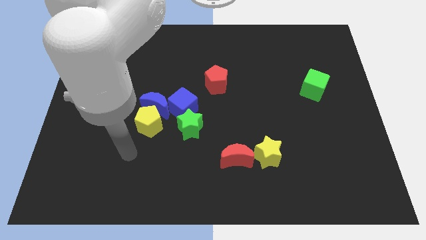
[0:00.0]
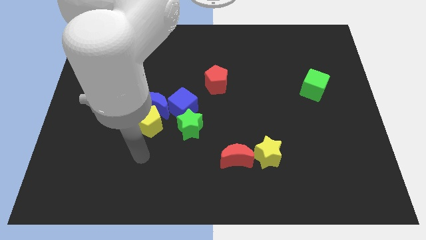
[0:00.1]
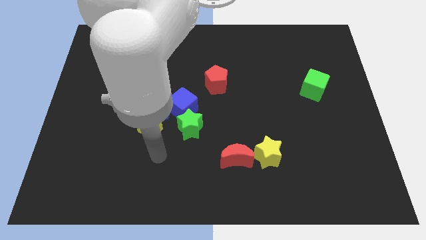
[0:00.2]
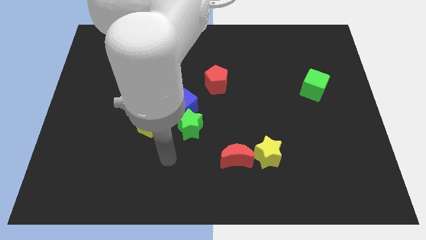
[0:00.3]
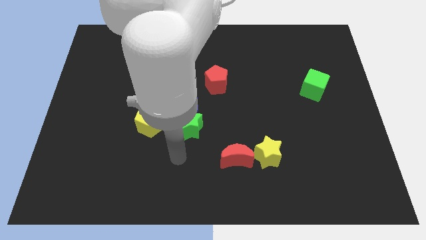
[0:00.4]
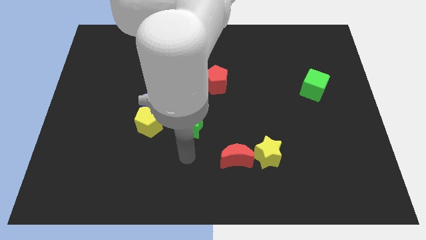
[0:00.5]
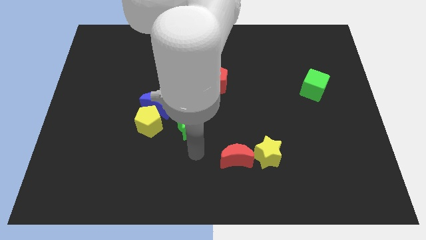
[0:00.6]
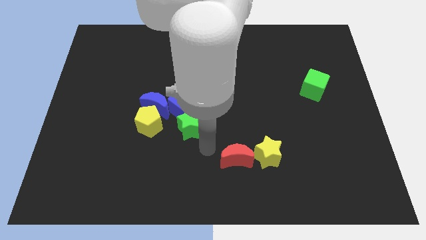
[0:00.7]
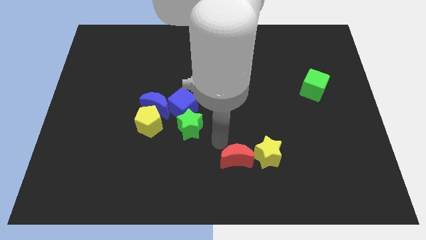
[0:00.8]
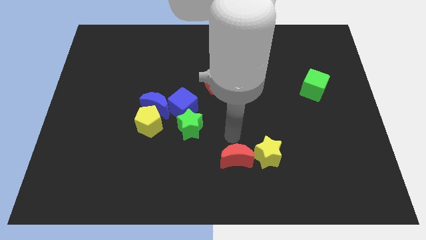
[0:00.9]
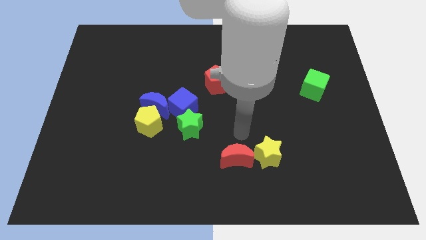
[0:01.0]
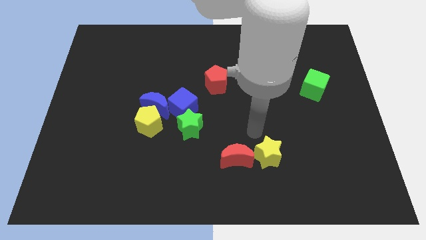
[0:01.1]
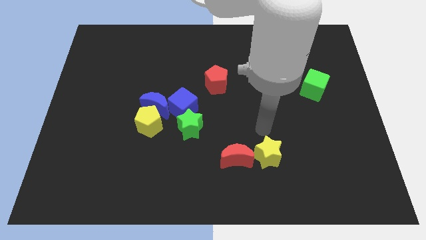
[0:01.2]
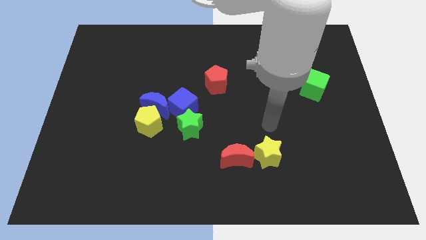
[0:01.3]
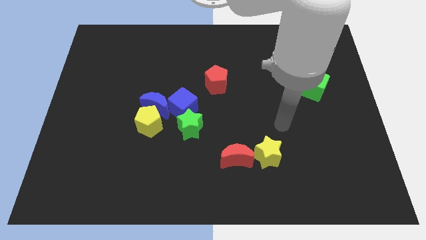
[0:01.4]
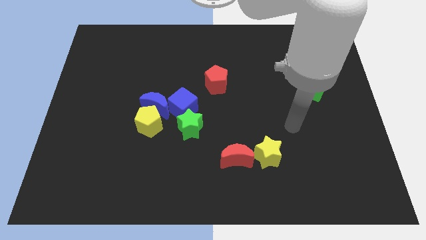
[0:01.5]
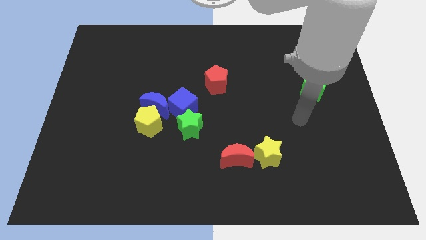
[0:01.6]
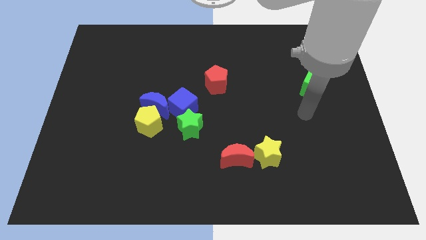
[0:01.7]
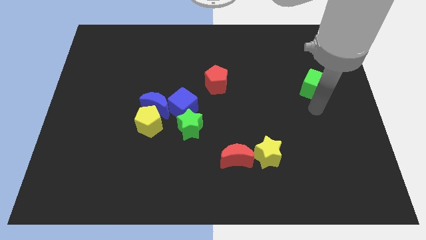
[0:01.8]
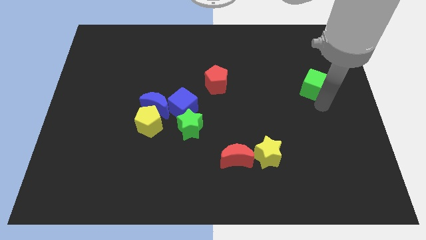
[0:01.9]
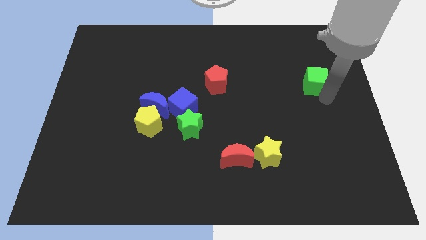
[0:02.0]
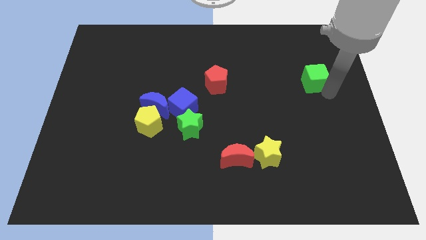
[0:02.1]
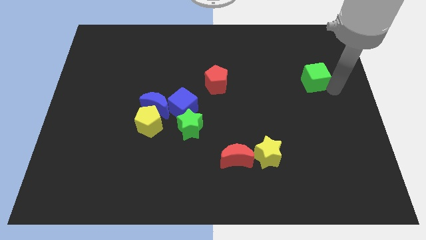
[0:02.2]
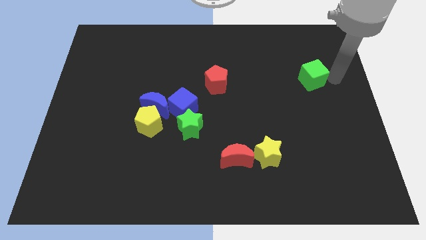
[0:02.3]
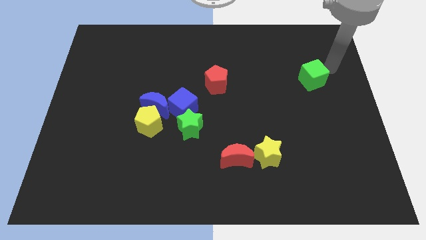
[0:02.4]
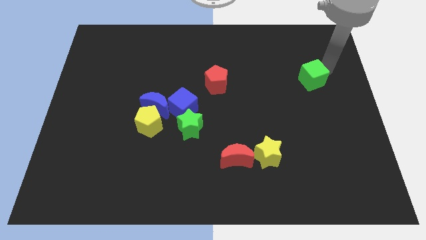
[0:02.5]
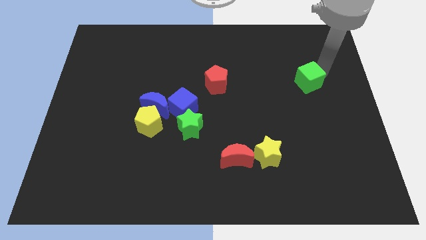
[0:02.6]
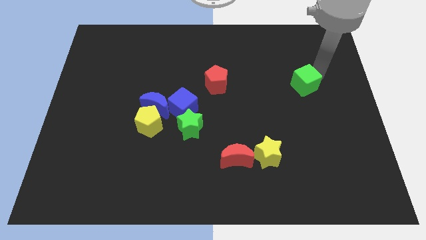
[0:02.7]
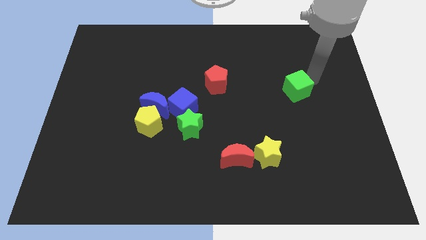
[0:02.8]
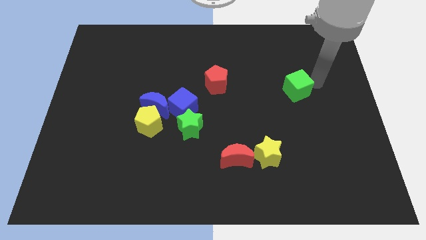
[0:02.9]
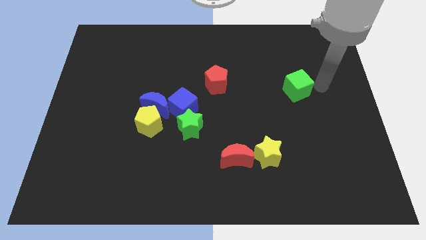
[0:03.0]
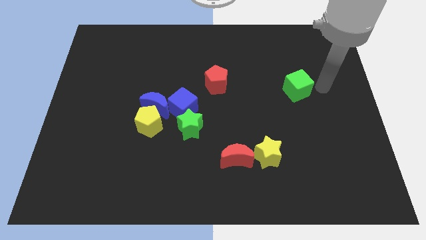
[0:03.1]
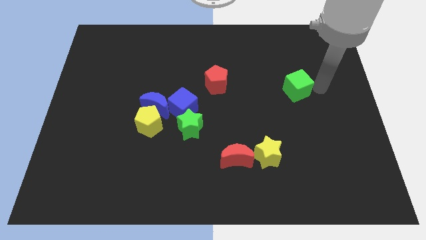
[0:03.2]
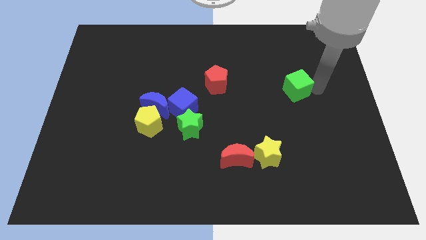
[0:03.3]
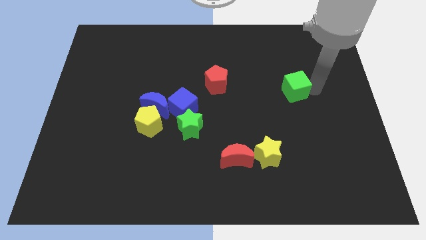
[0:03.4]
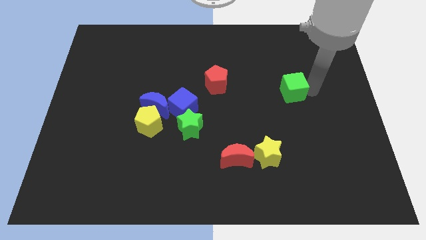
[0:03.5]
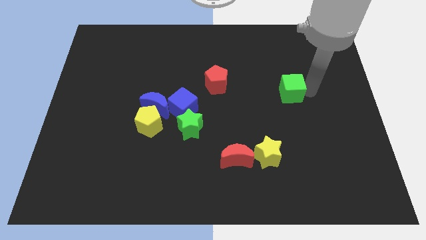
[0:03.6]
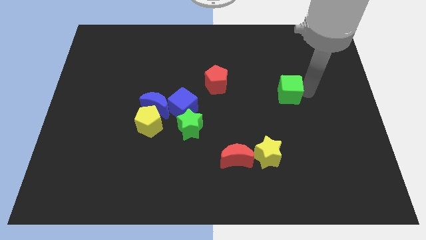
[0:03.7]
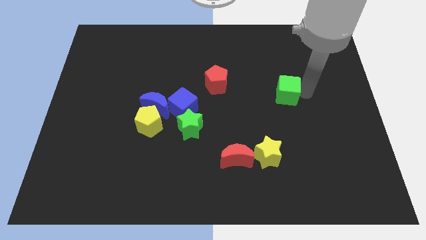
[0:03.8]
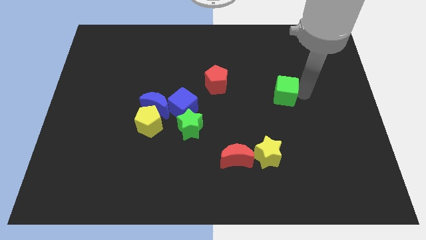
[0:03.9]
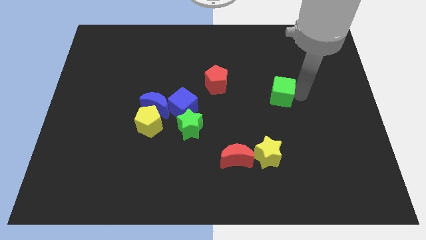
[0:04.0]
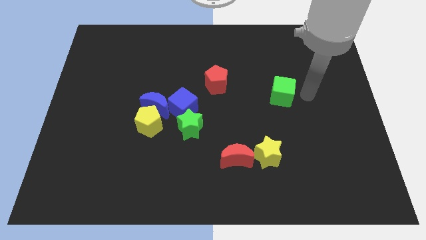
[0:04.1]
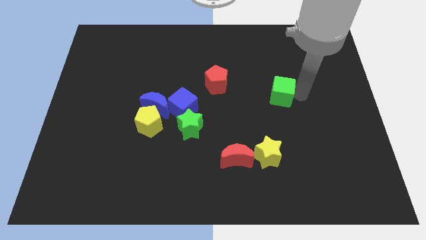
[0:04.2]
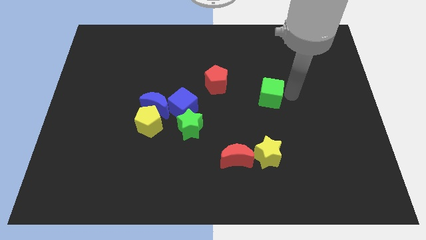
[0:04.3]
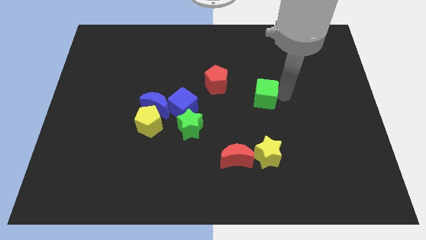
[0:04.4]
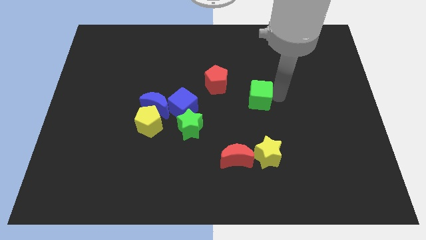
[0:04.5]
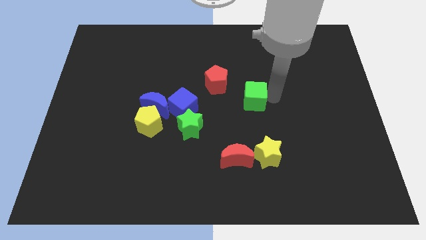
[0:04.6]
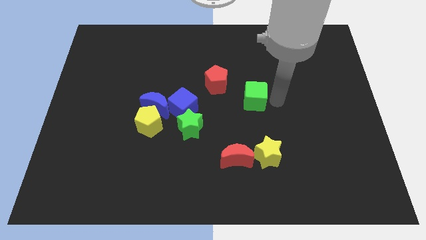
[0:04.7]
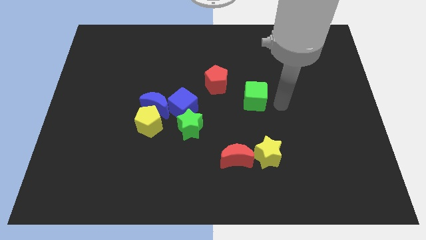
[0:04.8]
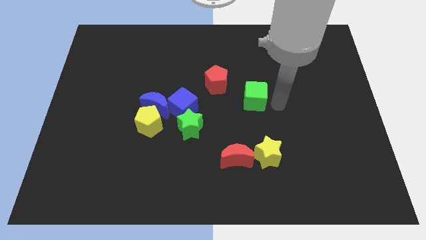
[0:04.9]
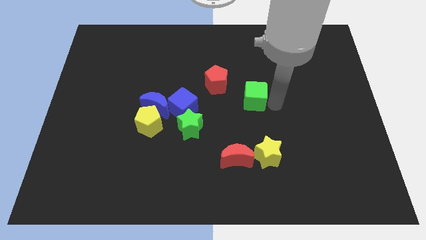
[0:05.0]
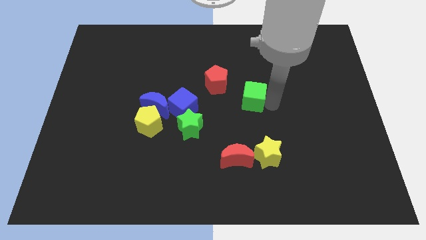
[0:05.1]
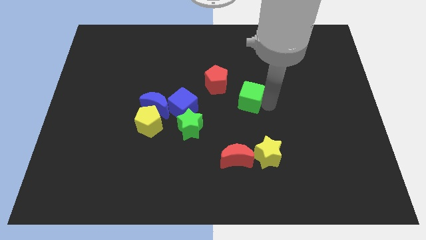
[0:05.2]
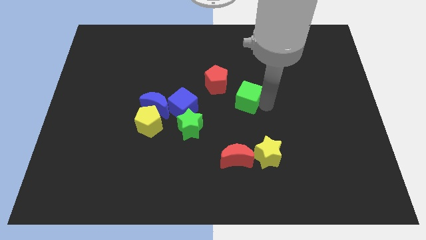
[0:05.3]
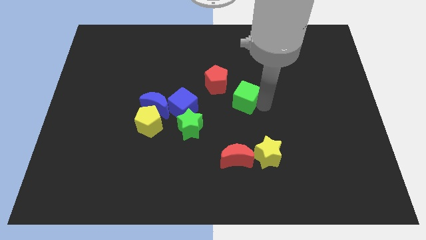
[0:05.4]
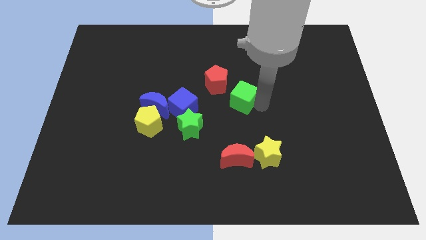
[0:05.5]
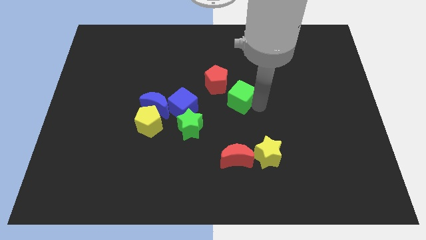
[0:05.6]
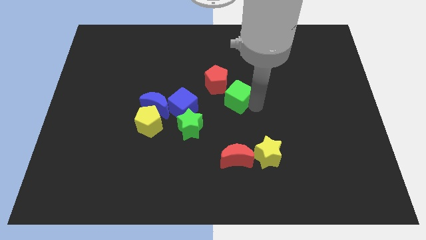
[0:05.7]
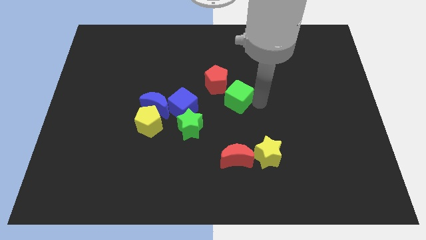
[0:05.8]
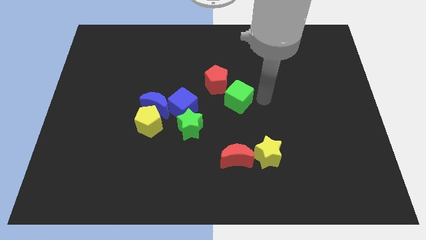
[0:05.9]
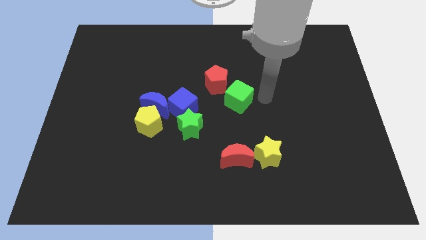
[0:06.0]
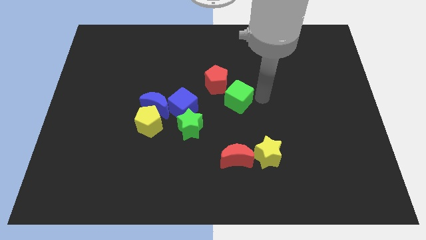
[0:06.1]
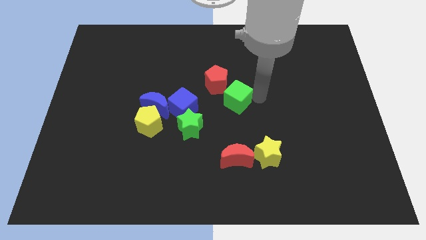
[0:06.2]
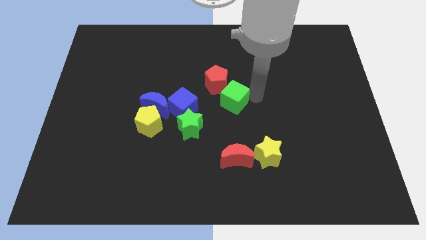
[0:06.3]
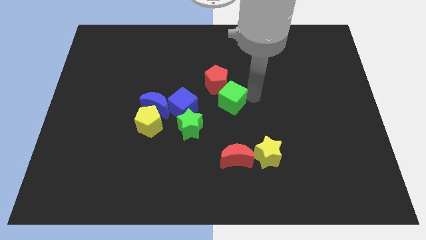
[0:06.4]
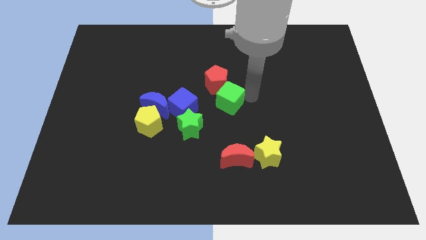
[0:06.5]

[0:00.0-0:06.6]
move the green cube left

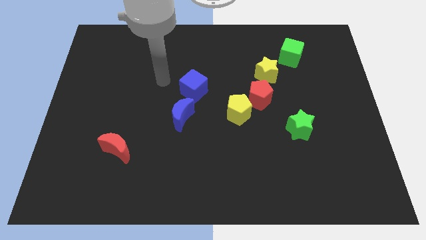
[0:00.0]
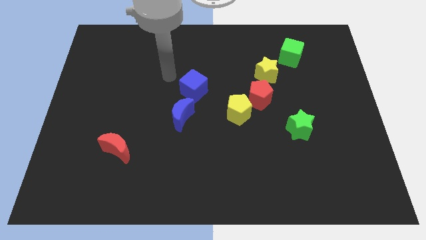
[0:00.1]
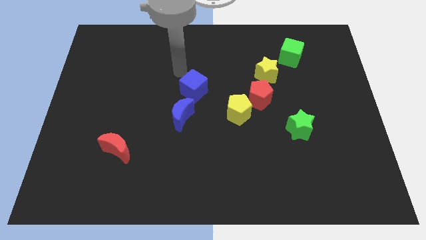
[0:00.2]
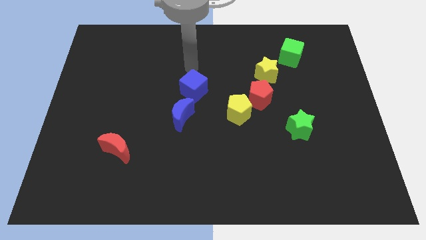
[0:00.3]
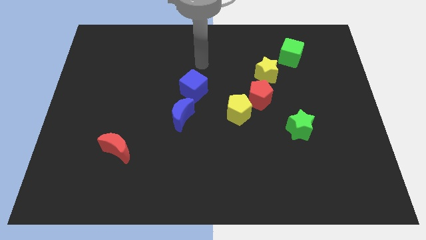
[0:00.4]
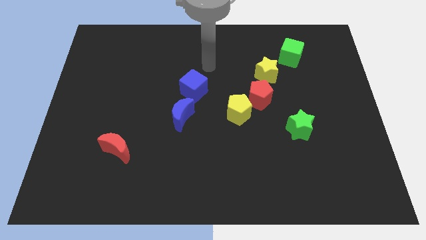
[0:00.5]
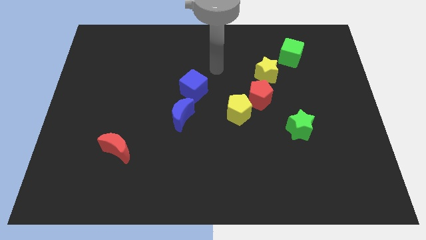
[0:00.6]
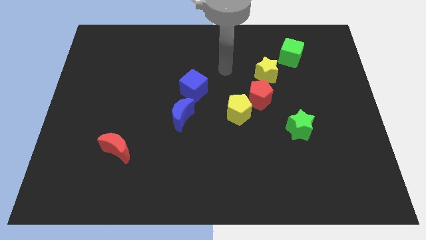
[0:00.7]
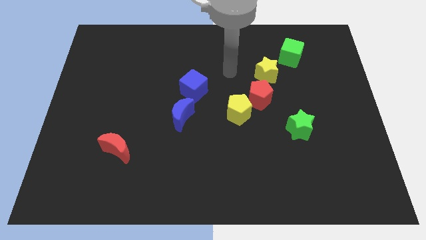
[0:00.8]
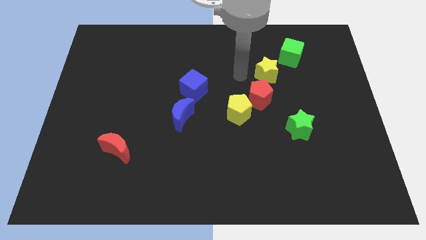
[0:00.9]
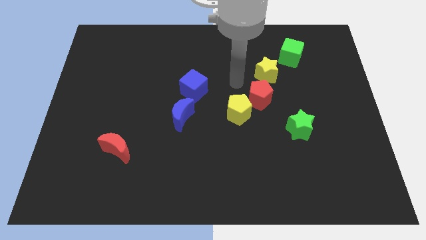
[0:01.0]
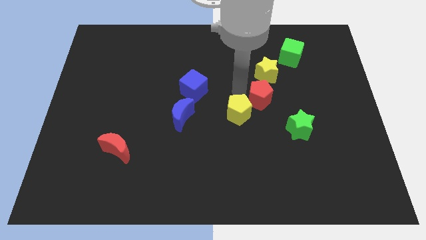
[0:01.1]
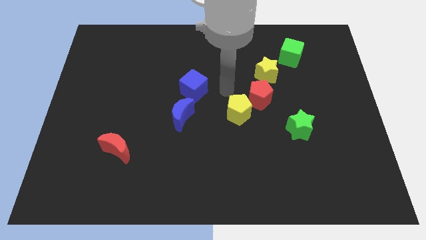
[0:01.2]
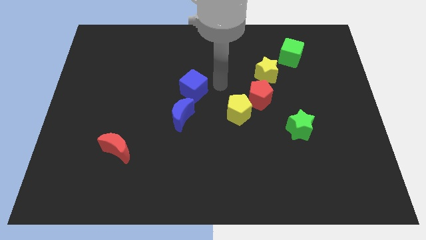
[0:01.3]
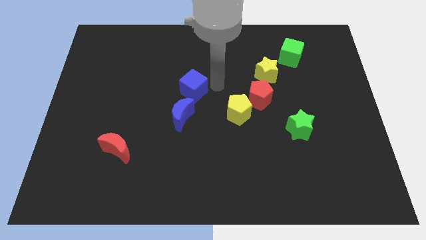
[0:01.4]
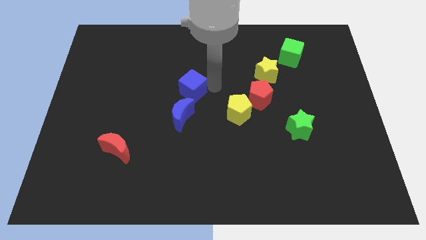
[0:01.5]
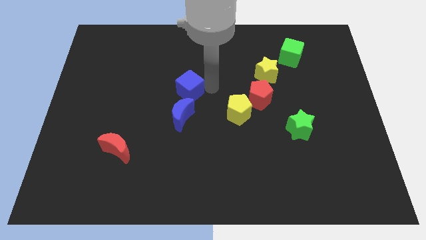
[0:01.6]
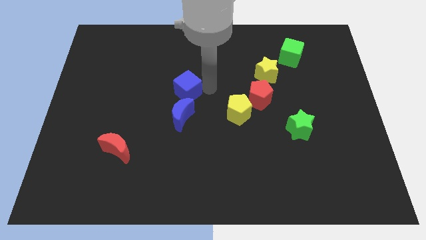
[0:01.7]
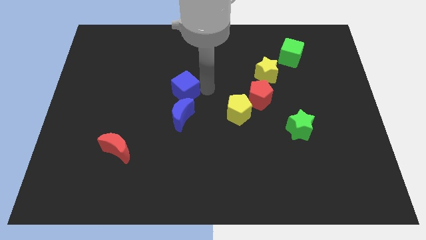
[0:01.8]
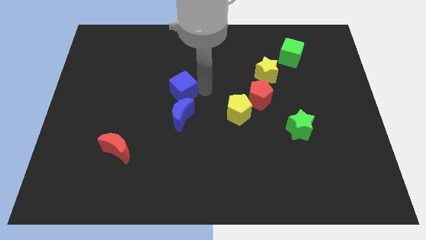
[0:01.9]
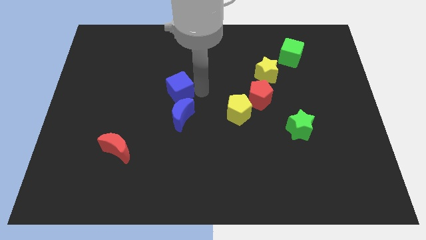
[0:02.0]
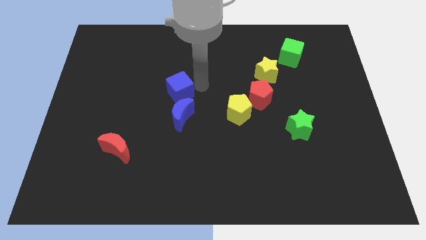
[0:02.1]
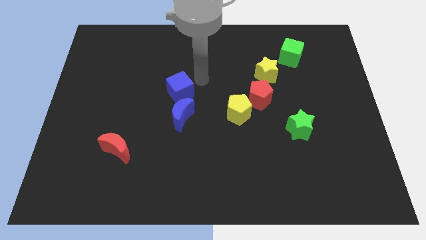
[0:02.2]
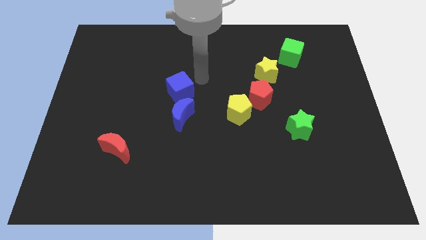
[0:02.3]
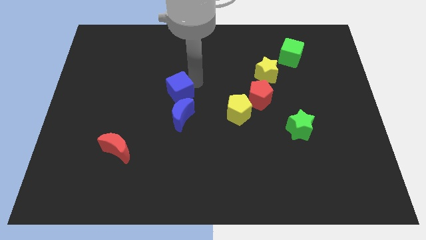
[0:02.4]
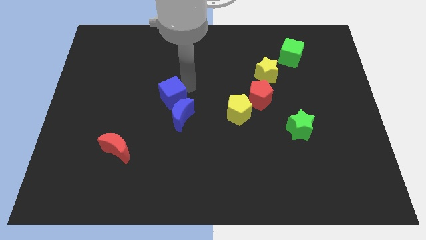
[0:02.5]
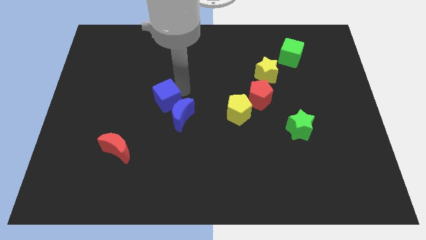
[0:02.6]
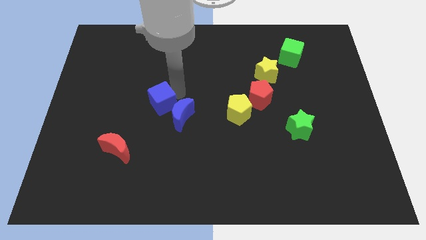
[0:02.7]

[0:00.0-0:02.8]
push the blue cube down and to the left a bit
